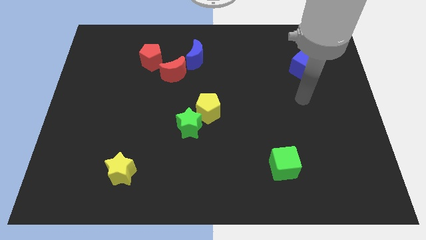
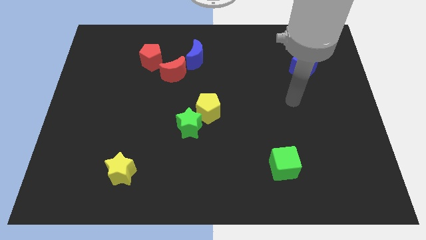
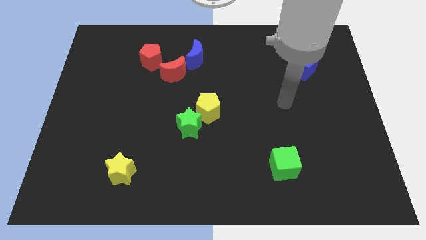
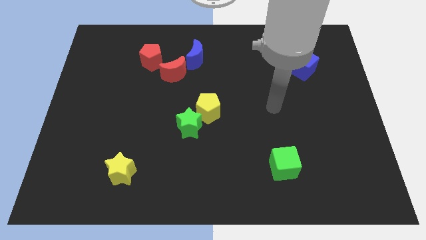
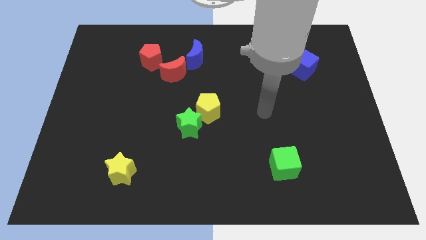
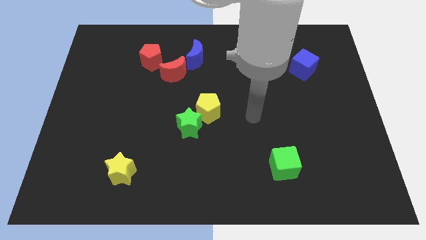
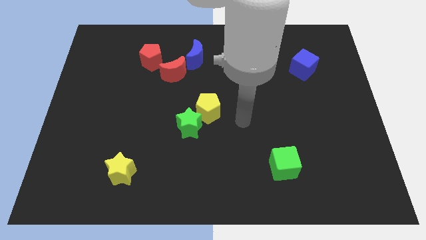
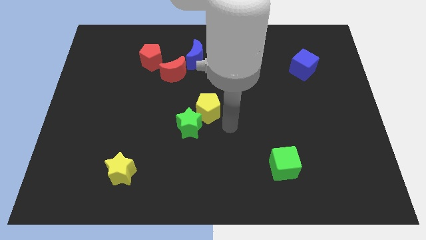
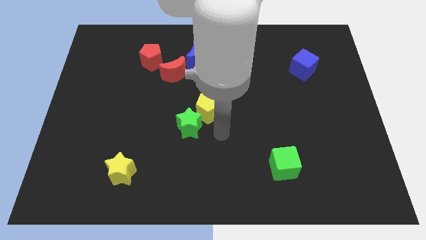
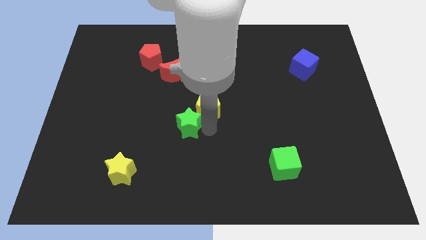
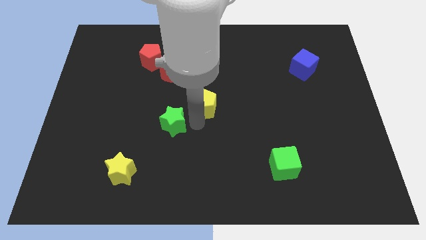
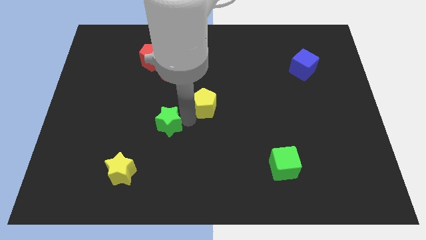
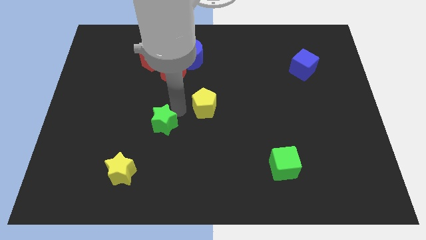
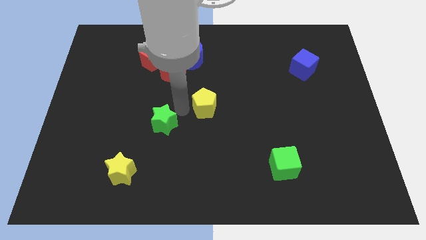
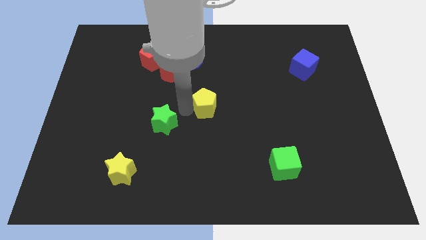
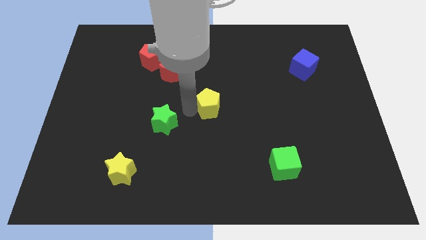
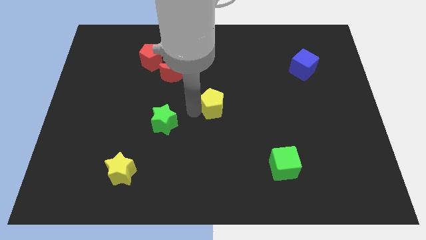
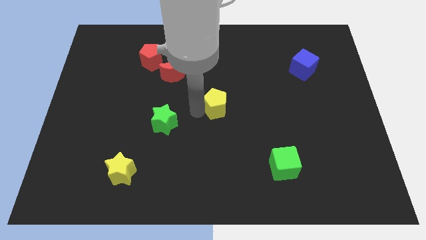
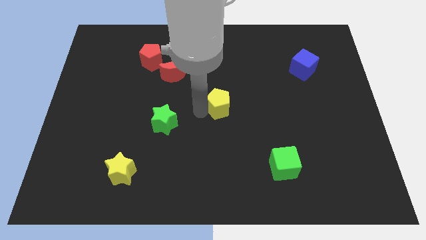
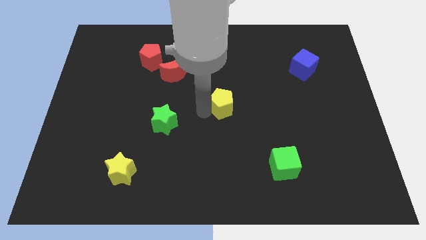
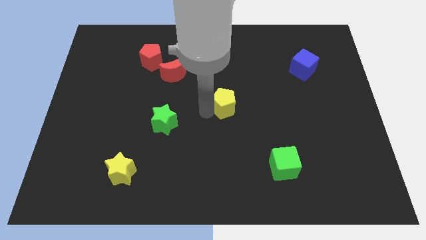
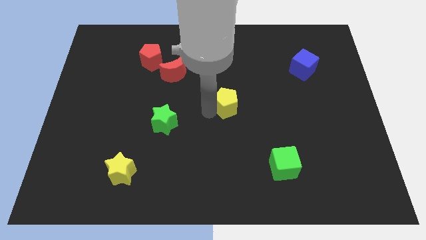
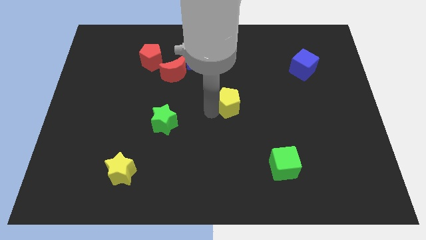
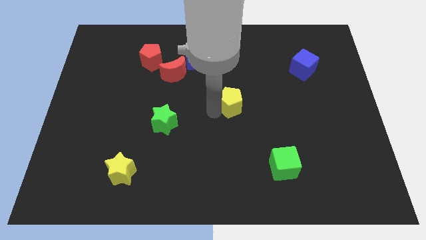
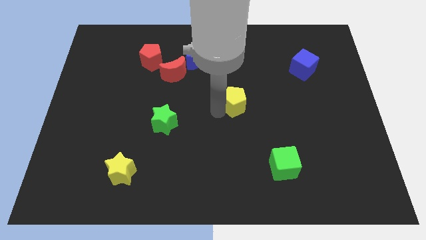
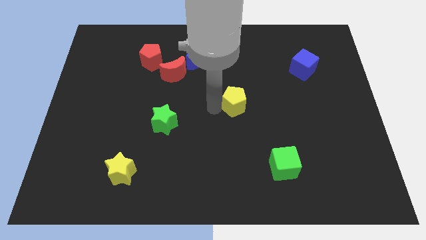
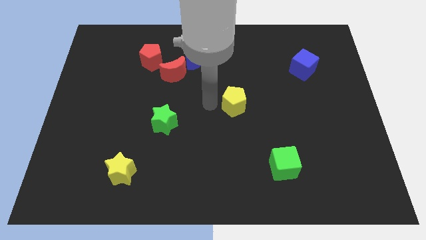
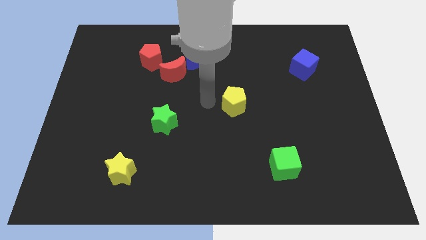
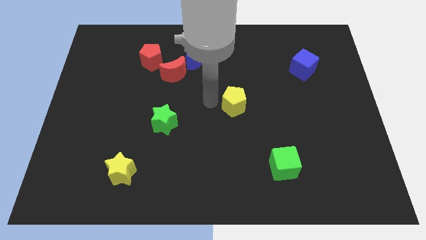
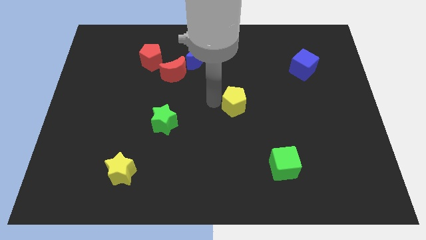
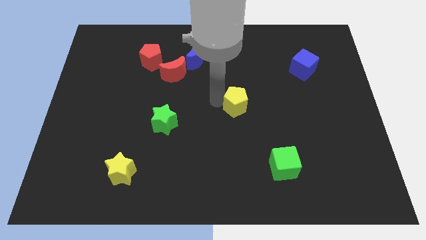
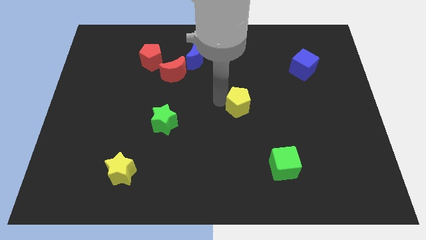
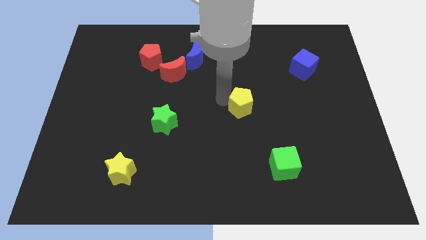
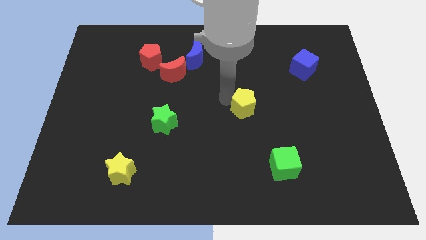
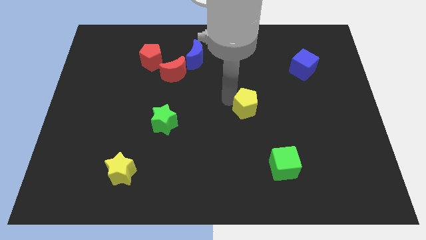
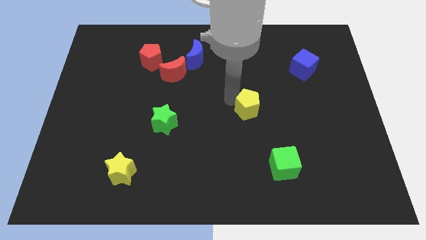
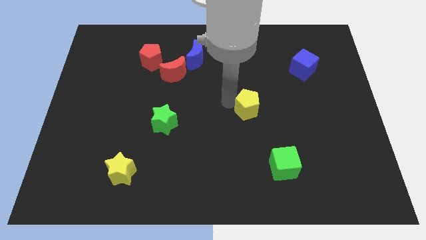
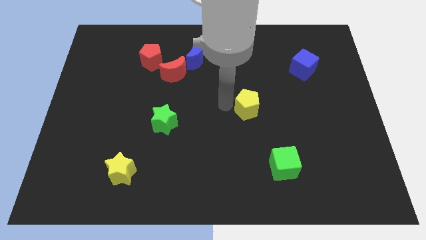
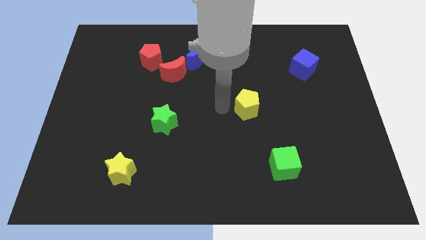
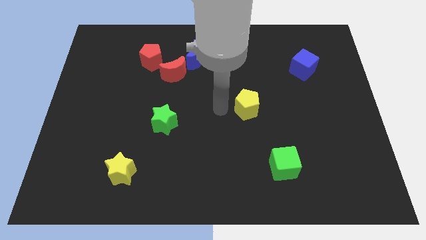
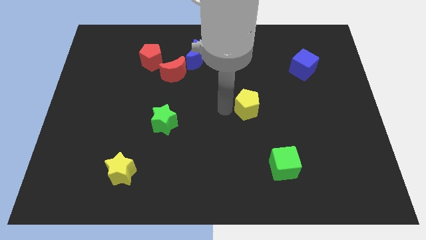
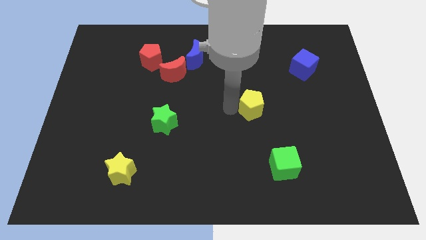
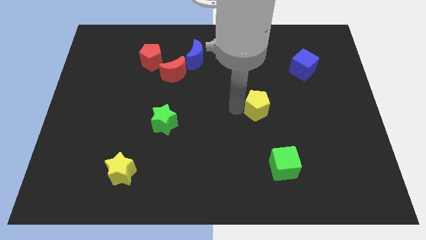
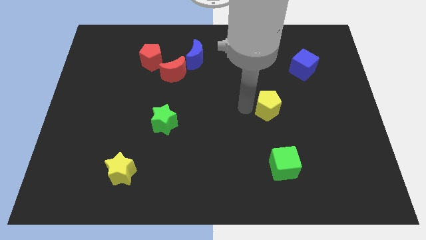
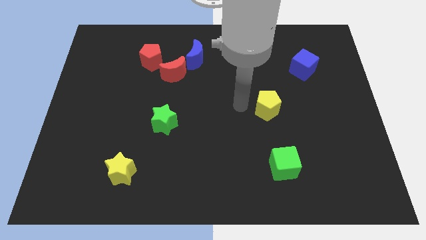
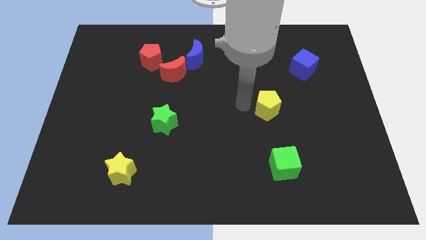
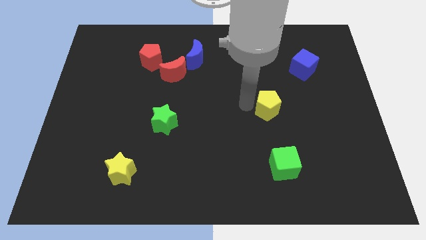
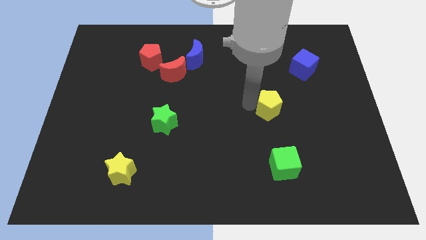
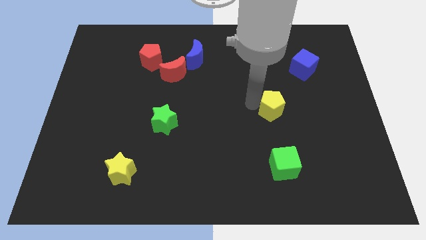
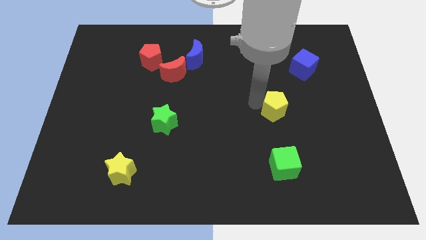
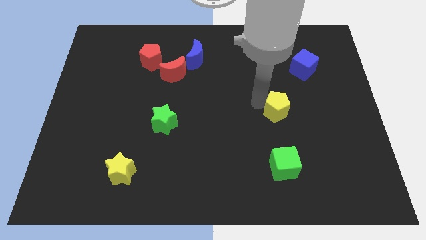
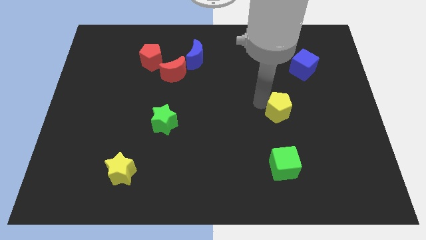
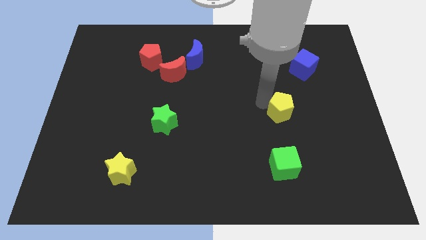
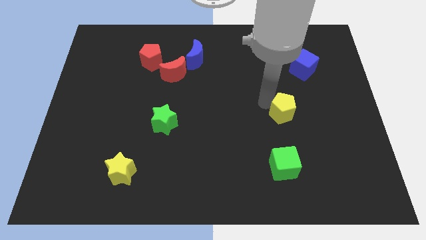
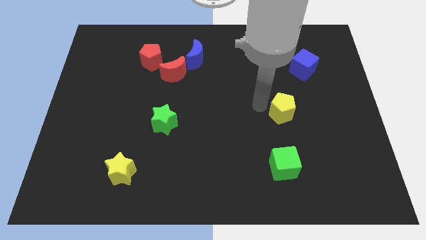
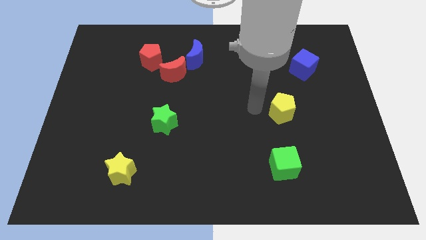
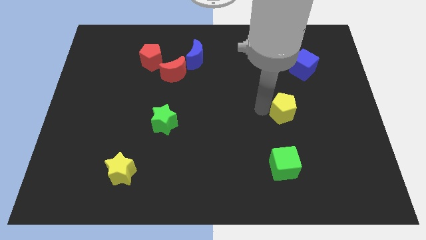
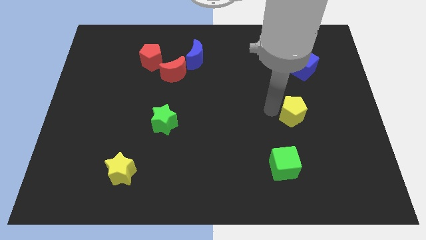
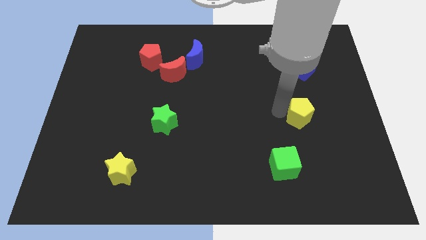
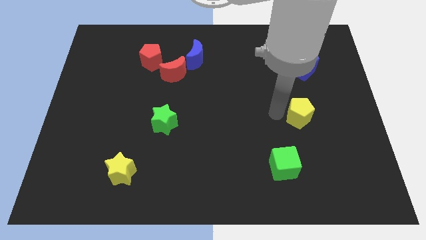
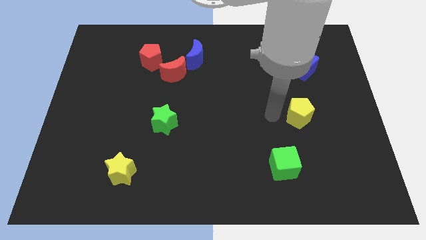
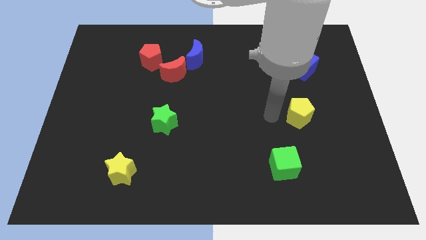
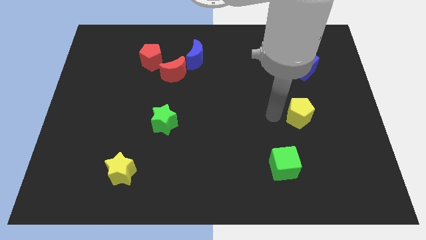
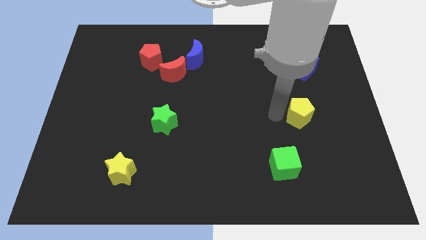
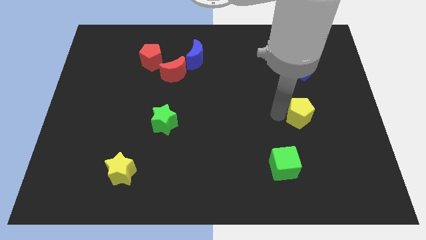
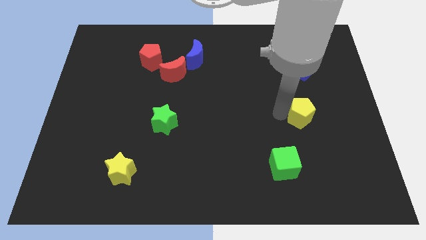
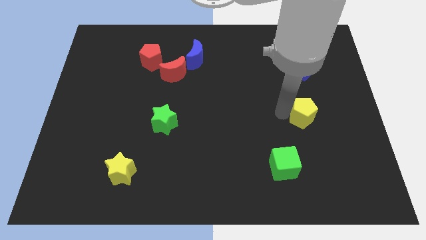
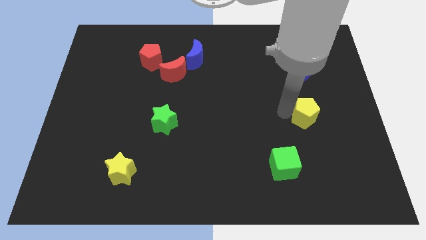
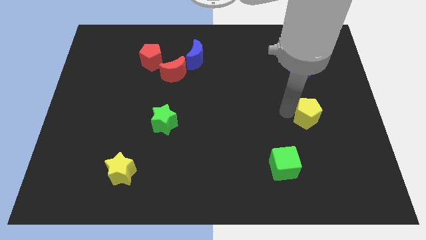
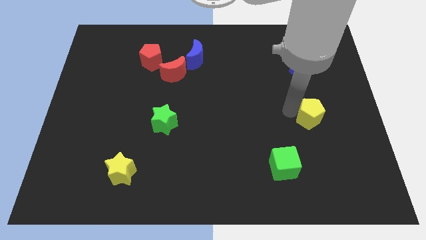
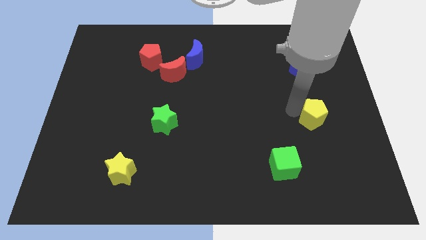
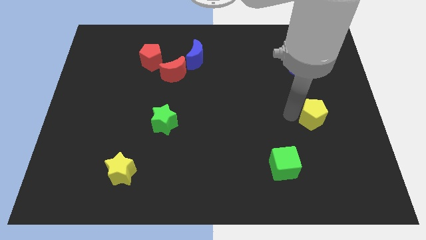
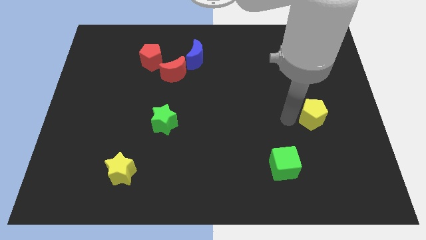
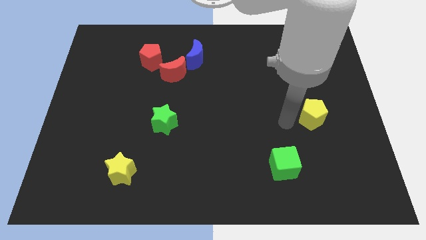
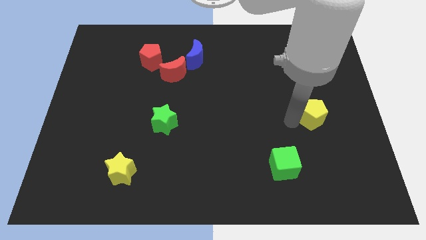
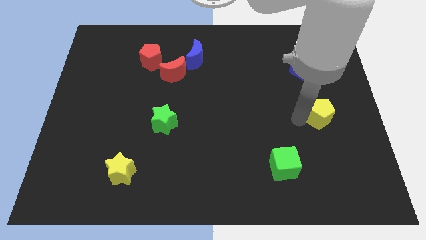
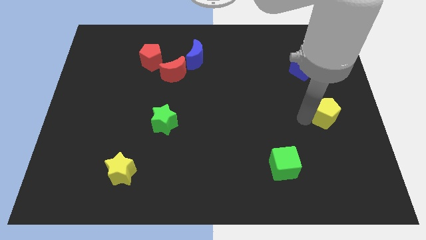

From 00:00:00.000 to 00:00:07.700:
push the yellow pentagon to the center right
